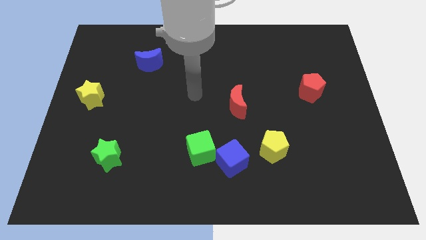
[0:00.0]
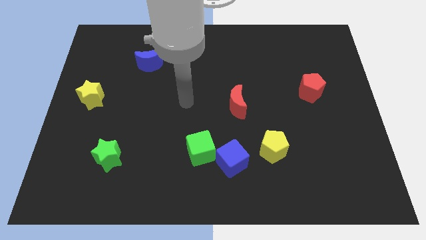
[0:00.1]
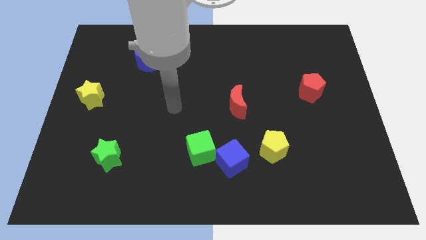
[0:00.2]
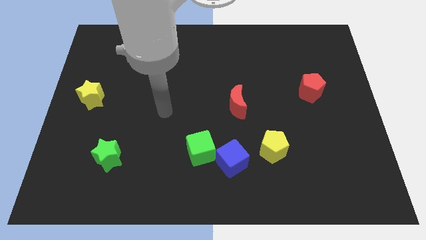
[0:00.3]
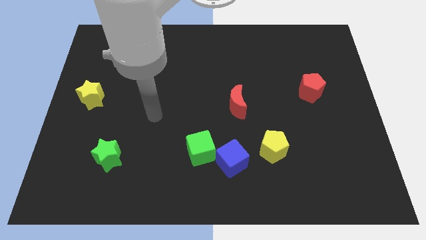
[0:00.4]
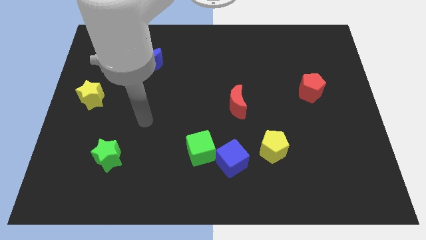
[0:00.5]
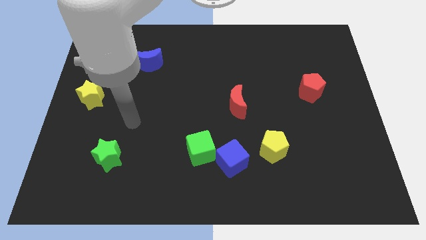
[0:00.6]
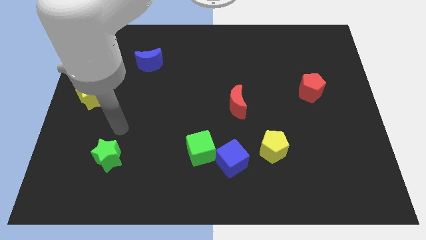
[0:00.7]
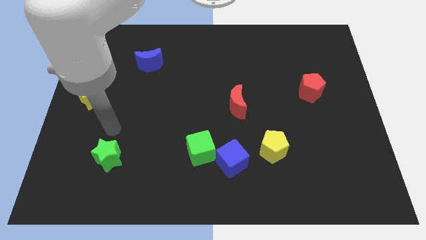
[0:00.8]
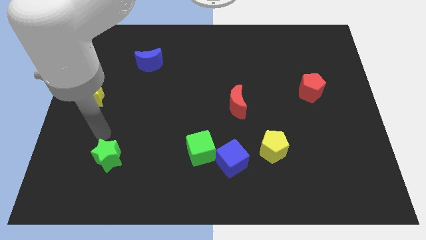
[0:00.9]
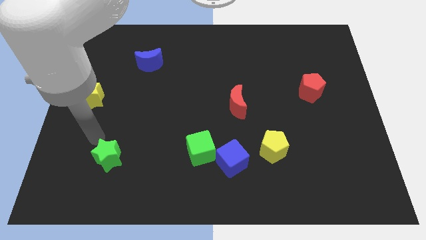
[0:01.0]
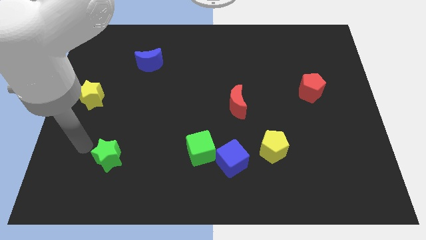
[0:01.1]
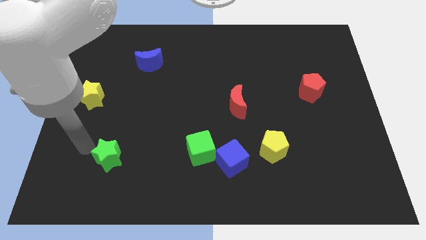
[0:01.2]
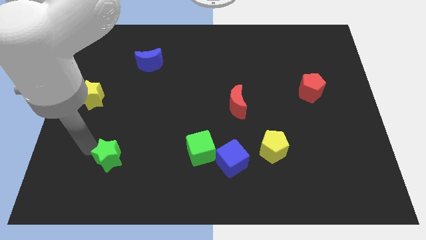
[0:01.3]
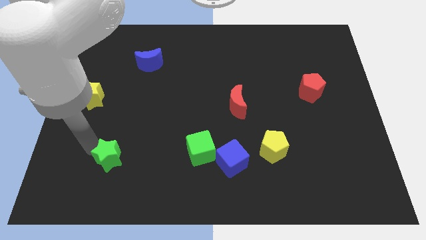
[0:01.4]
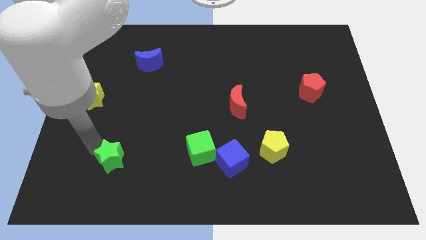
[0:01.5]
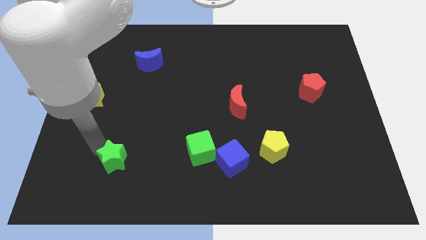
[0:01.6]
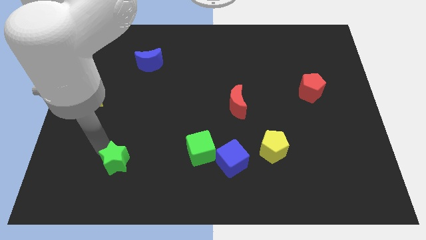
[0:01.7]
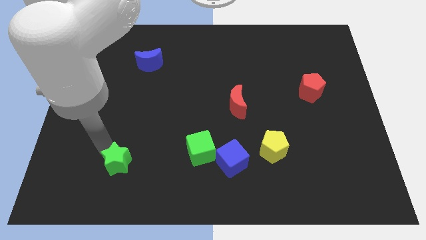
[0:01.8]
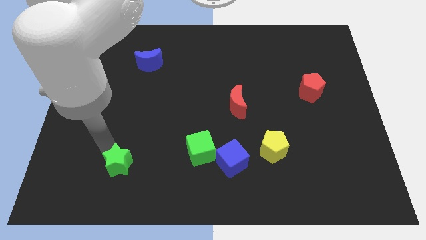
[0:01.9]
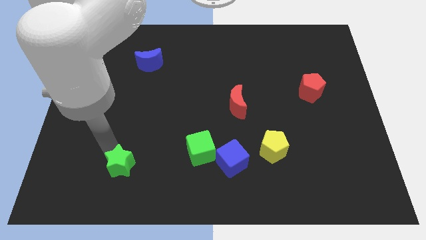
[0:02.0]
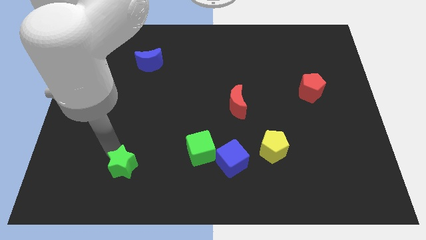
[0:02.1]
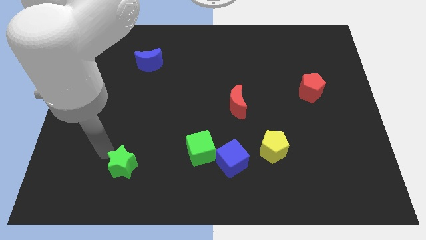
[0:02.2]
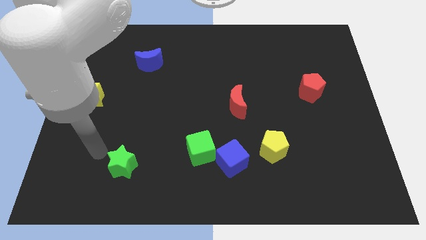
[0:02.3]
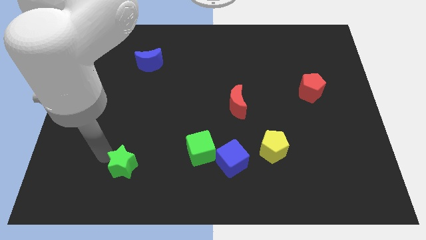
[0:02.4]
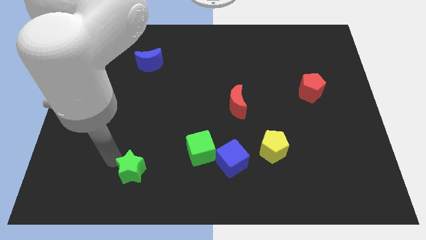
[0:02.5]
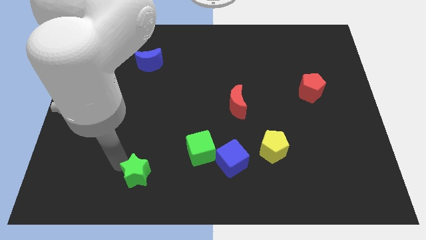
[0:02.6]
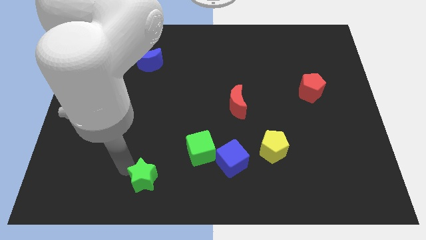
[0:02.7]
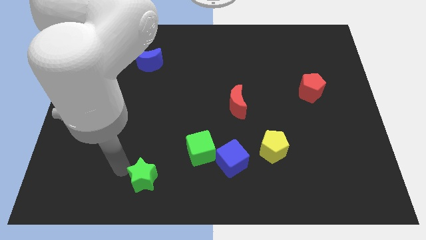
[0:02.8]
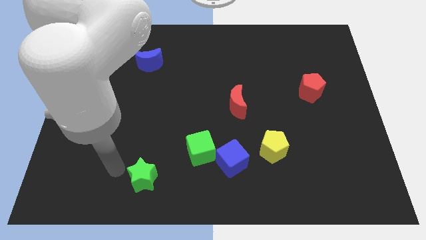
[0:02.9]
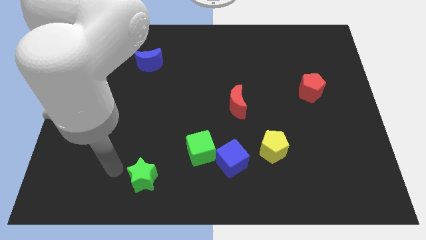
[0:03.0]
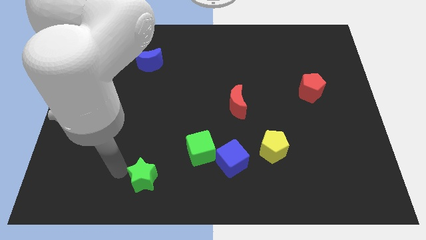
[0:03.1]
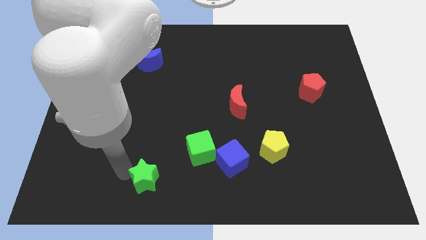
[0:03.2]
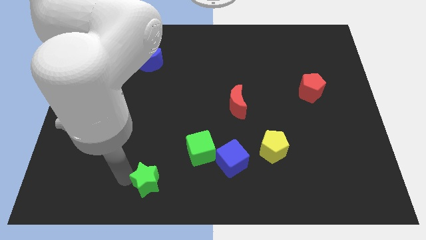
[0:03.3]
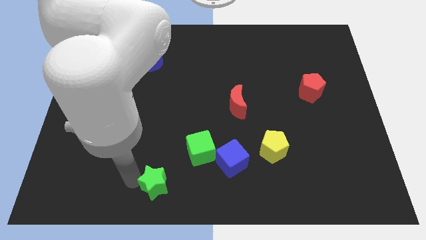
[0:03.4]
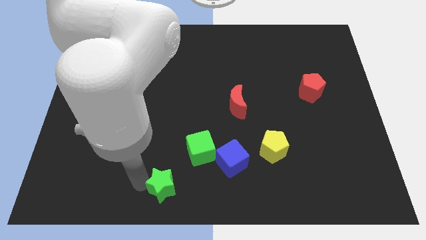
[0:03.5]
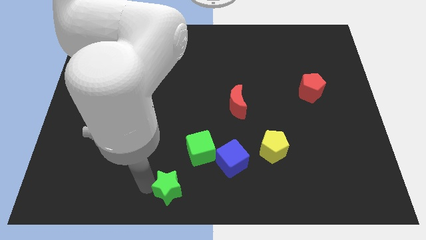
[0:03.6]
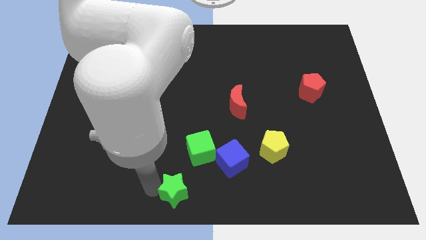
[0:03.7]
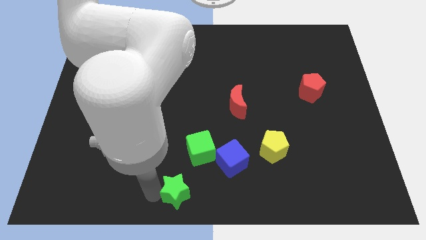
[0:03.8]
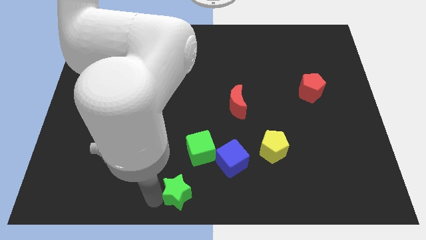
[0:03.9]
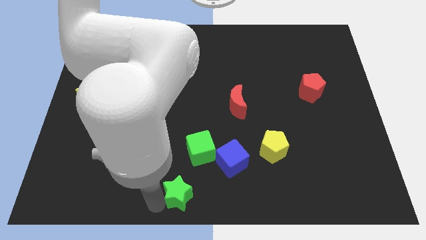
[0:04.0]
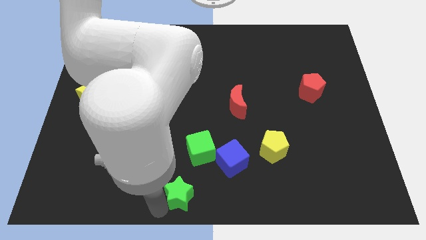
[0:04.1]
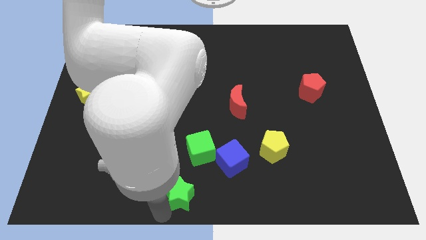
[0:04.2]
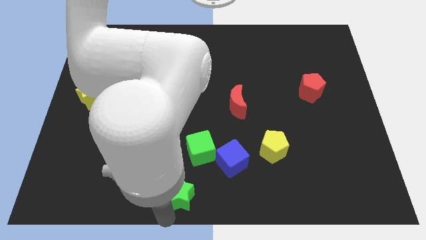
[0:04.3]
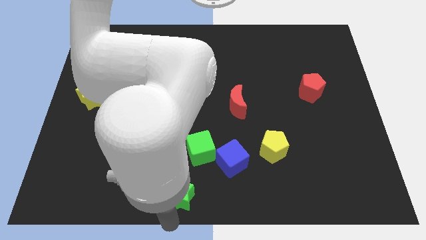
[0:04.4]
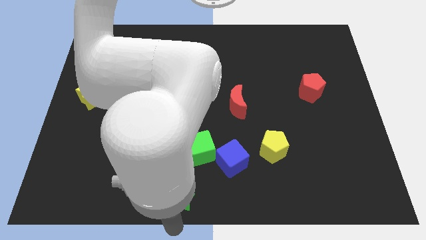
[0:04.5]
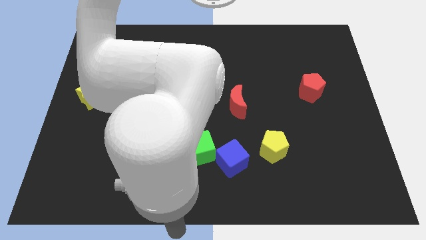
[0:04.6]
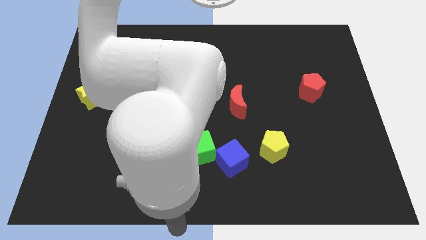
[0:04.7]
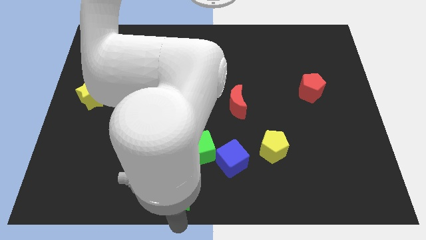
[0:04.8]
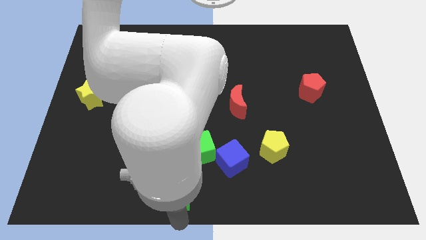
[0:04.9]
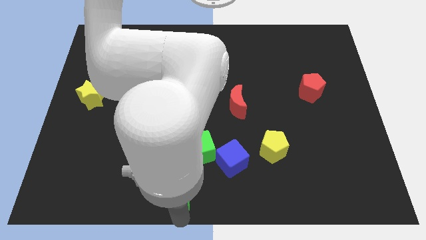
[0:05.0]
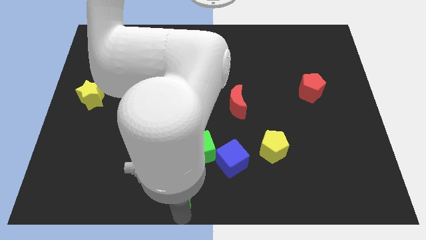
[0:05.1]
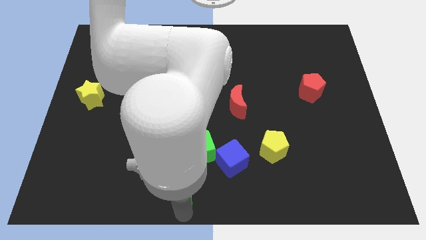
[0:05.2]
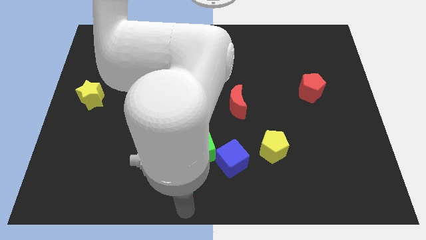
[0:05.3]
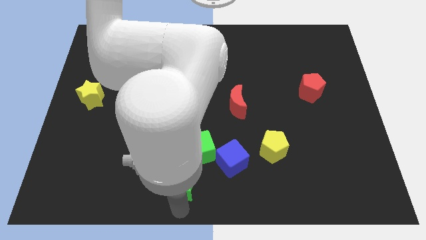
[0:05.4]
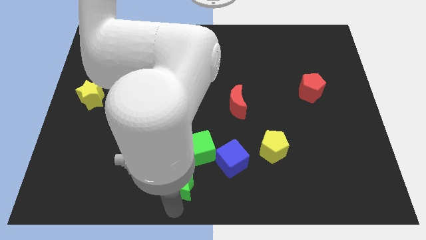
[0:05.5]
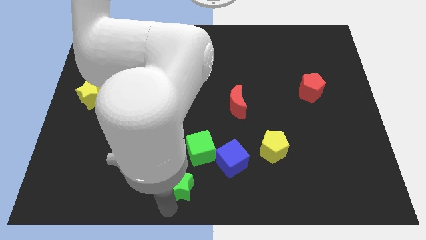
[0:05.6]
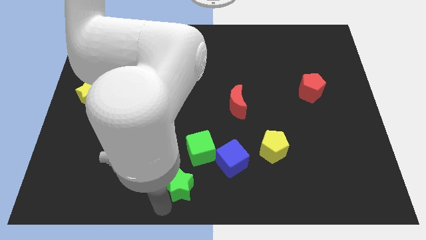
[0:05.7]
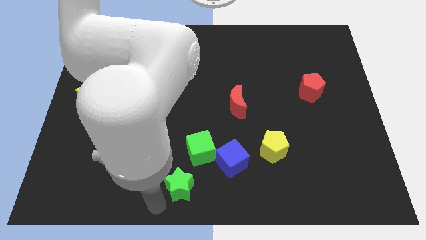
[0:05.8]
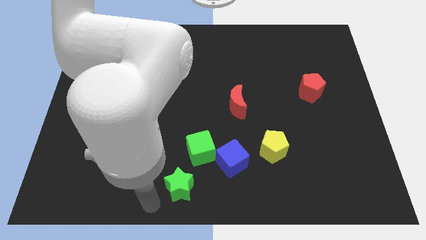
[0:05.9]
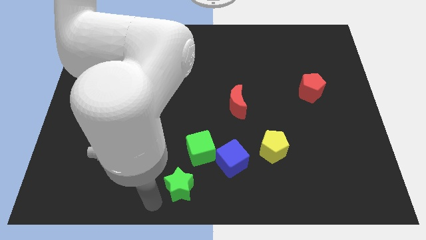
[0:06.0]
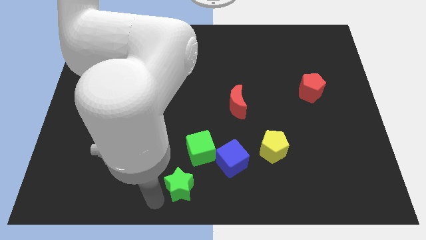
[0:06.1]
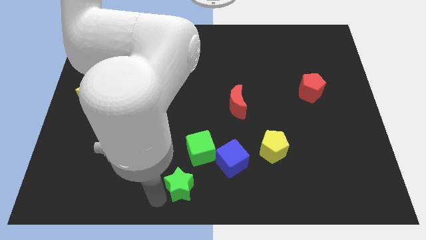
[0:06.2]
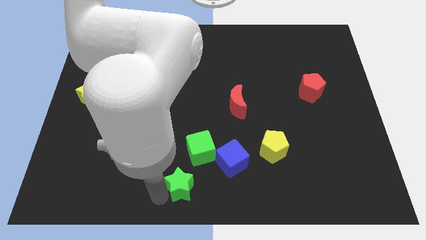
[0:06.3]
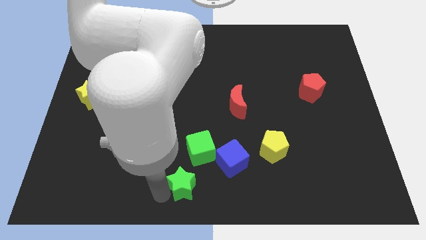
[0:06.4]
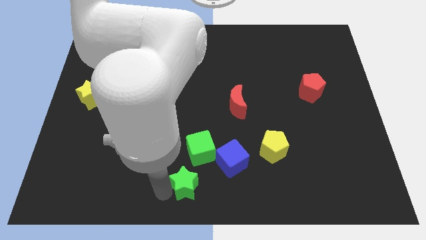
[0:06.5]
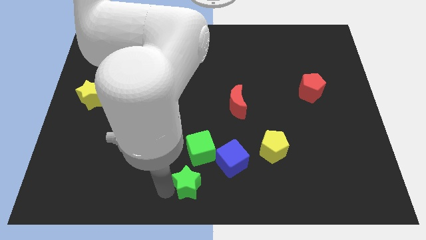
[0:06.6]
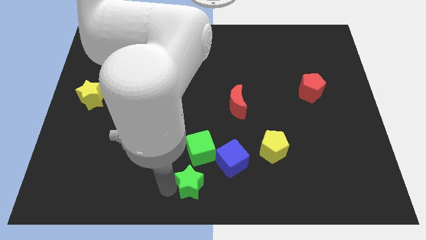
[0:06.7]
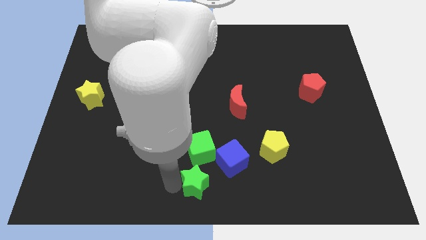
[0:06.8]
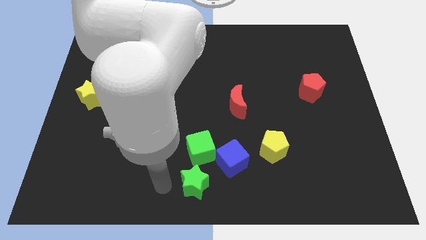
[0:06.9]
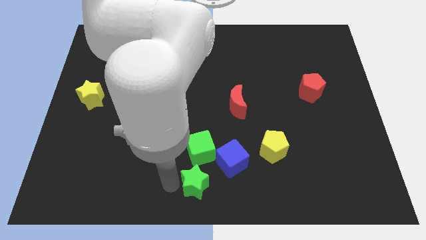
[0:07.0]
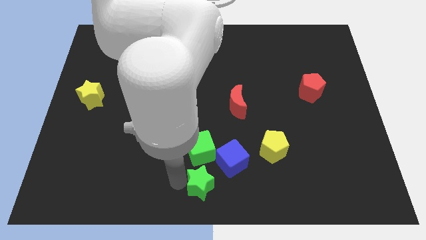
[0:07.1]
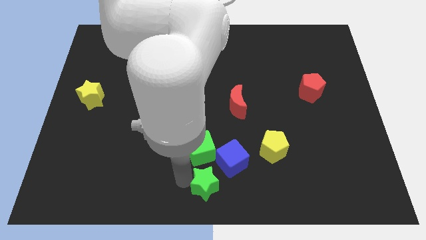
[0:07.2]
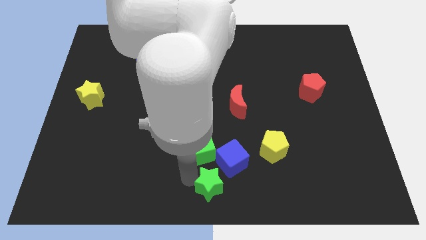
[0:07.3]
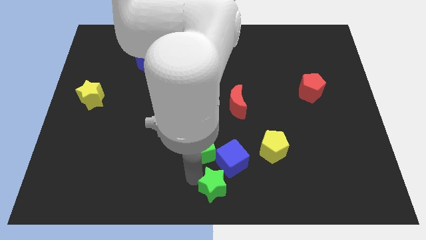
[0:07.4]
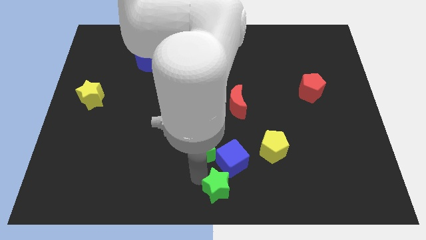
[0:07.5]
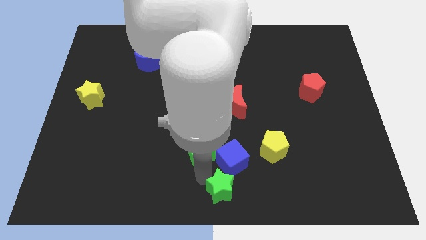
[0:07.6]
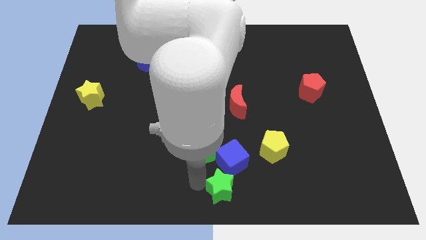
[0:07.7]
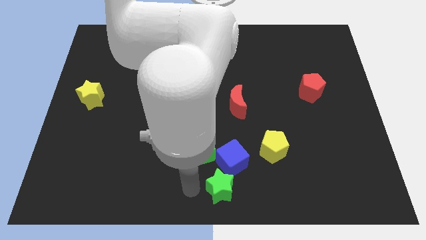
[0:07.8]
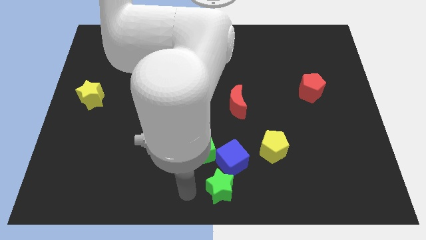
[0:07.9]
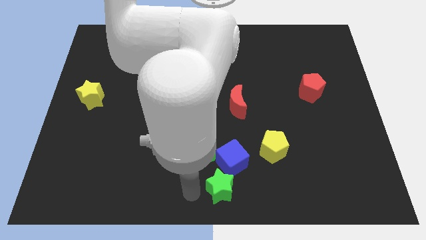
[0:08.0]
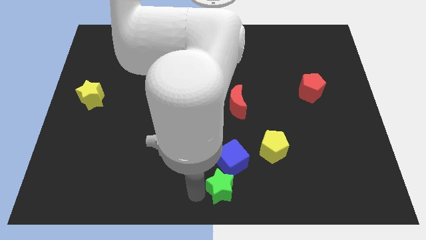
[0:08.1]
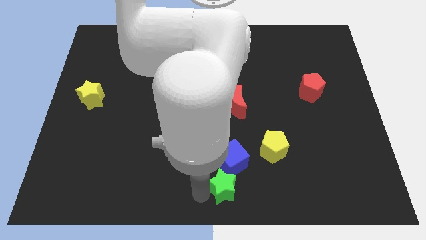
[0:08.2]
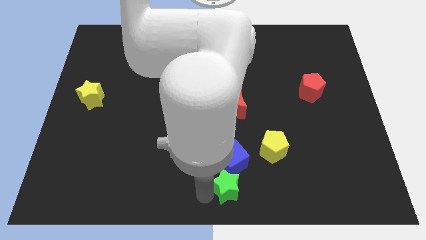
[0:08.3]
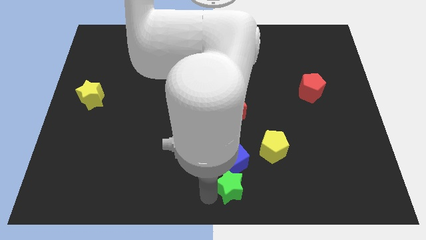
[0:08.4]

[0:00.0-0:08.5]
push the green star to the bottom right side of the blue cube
